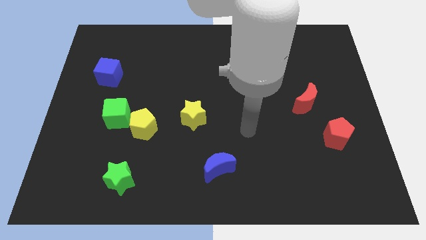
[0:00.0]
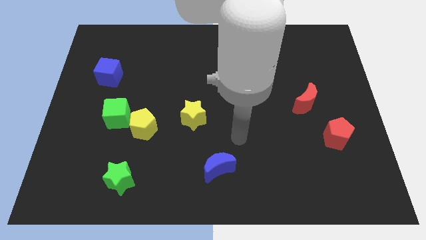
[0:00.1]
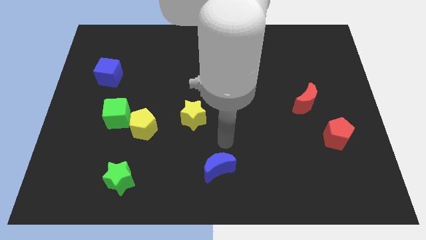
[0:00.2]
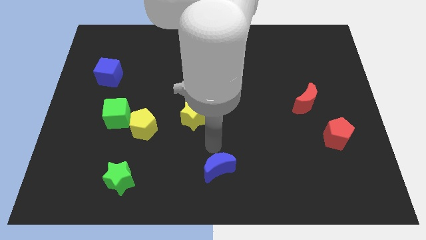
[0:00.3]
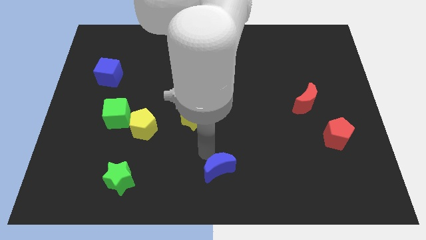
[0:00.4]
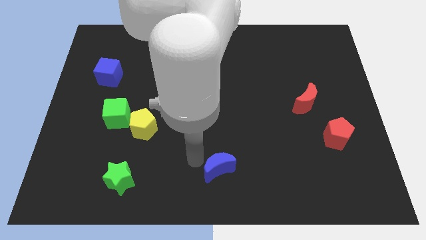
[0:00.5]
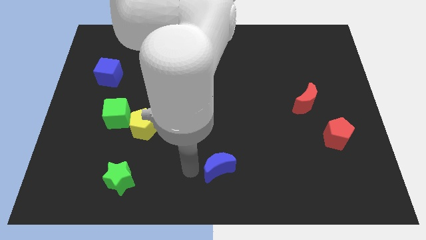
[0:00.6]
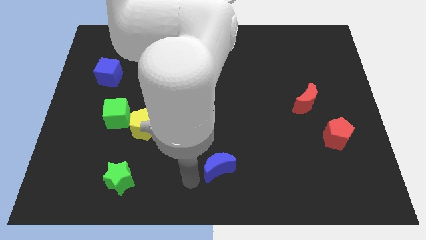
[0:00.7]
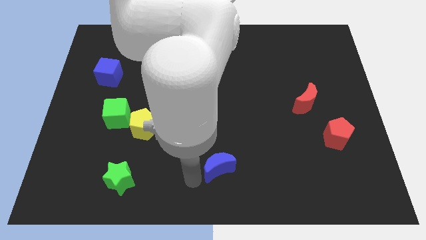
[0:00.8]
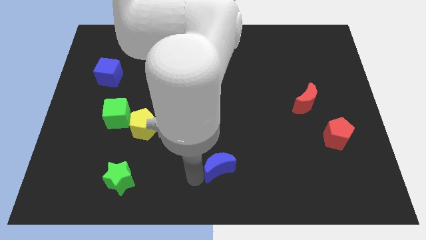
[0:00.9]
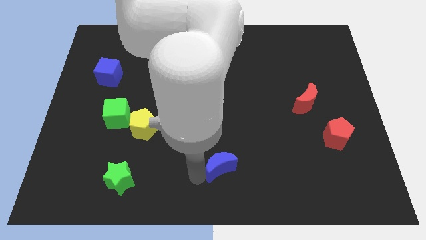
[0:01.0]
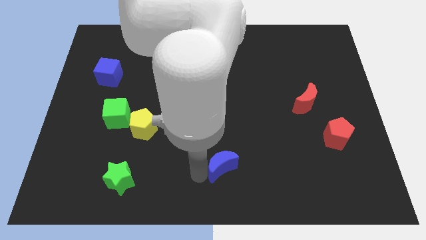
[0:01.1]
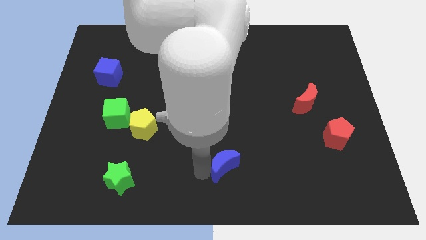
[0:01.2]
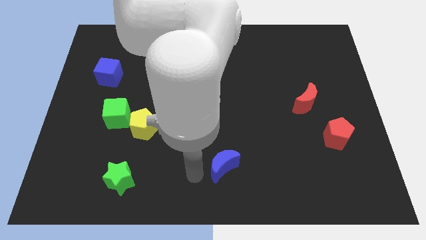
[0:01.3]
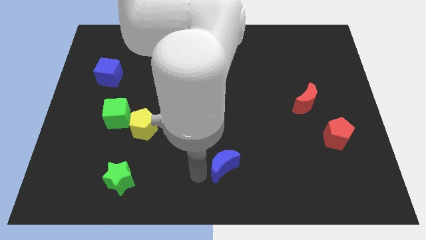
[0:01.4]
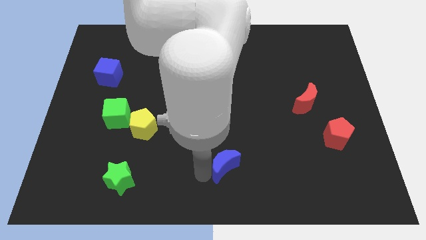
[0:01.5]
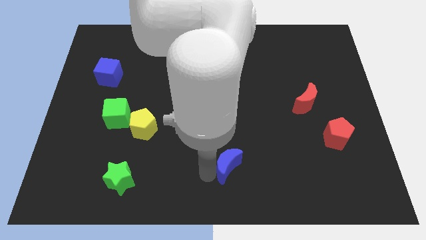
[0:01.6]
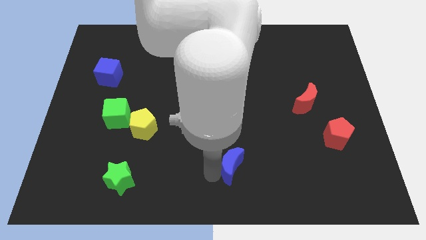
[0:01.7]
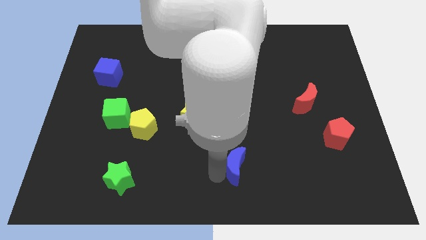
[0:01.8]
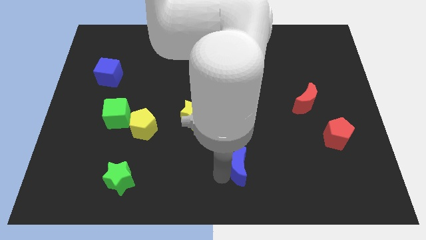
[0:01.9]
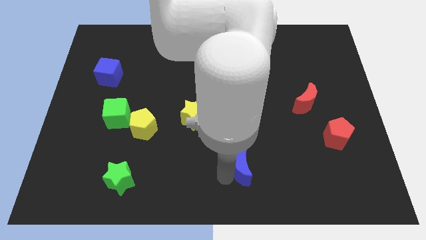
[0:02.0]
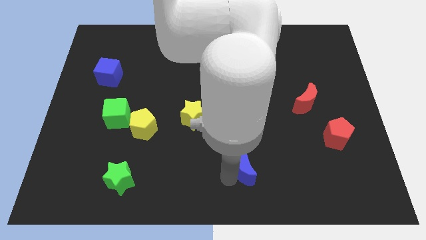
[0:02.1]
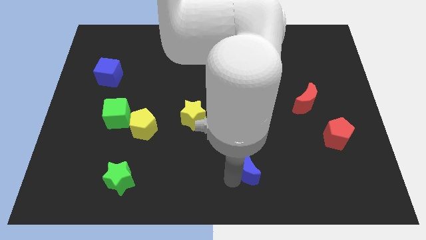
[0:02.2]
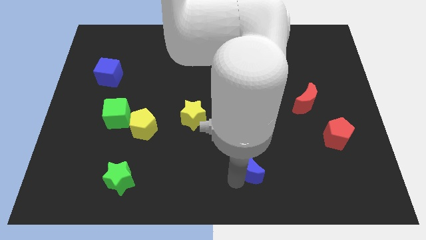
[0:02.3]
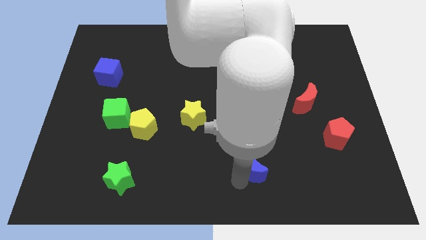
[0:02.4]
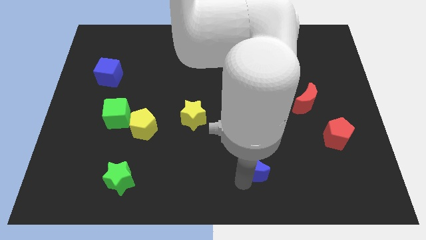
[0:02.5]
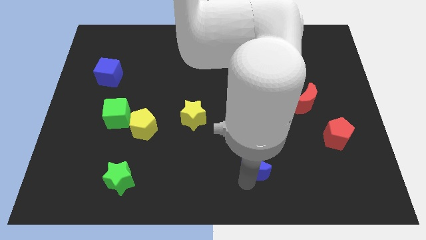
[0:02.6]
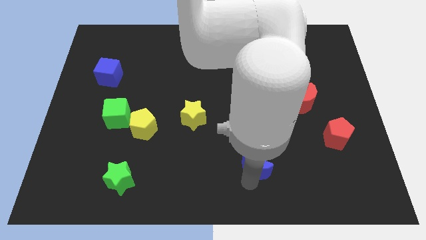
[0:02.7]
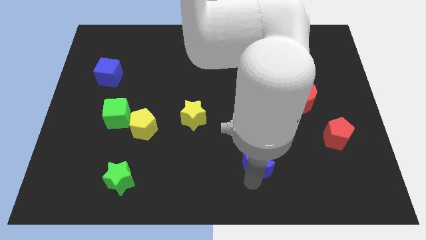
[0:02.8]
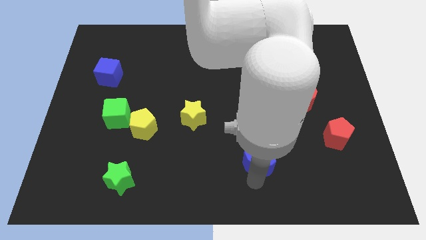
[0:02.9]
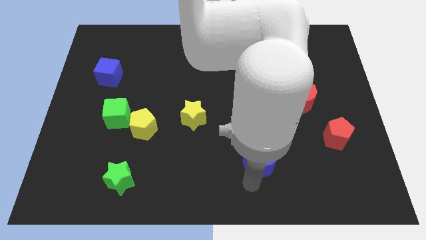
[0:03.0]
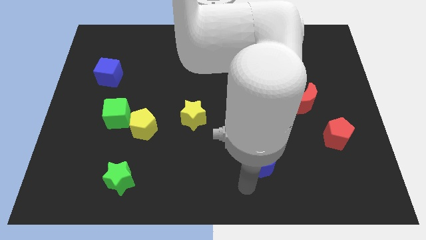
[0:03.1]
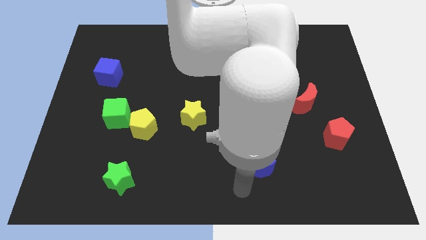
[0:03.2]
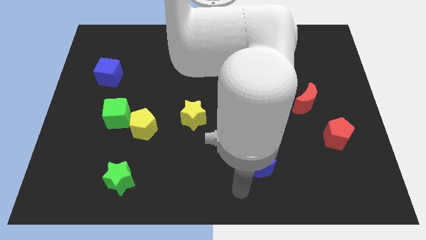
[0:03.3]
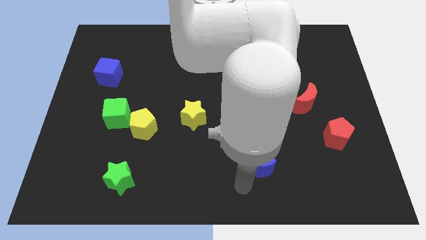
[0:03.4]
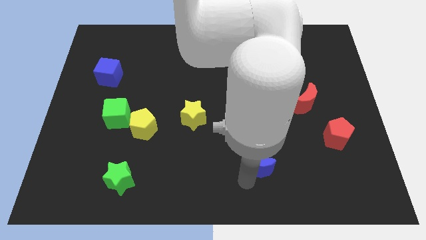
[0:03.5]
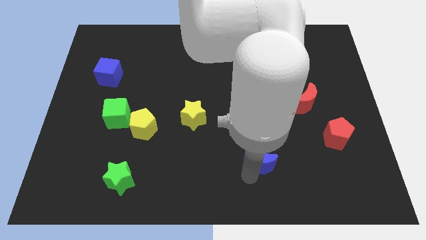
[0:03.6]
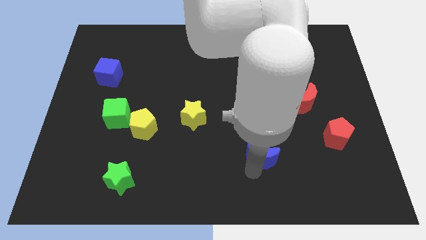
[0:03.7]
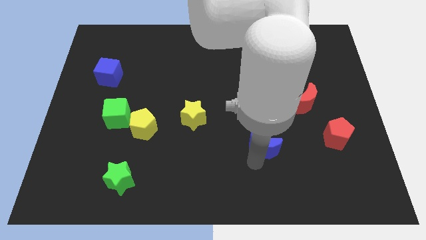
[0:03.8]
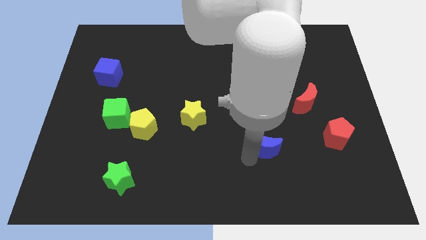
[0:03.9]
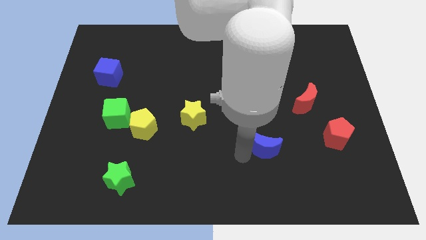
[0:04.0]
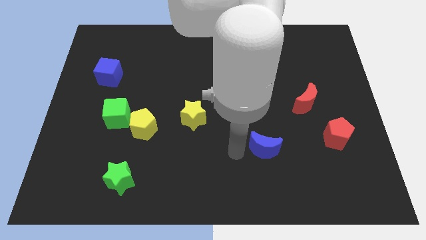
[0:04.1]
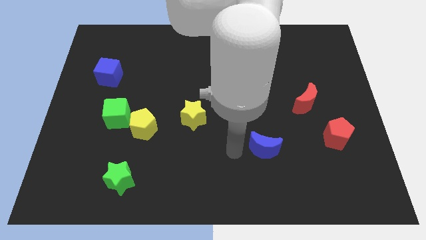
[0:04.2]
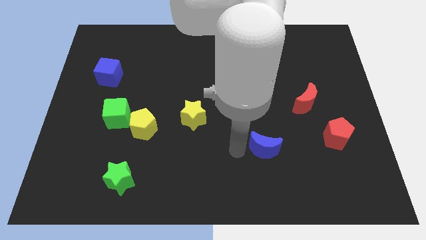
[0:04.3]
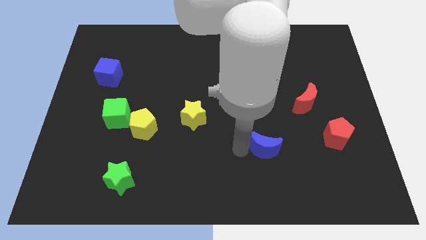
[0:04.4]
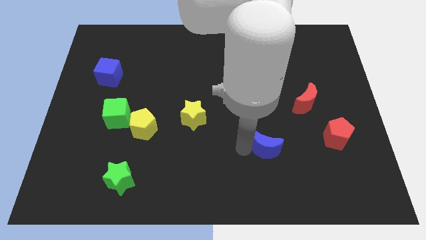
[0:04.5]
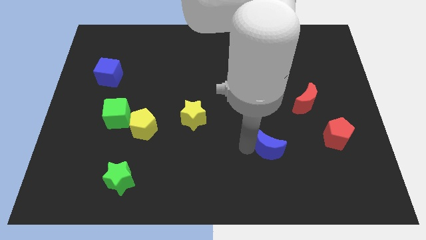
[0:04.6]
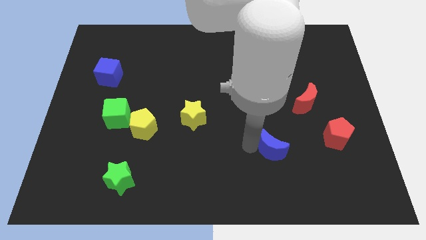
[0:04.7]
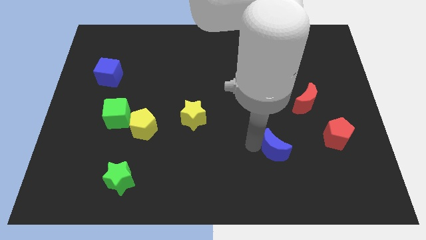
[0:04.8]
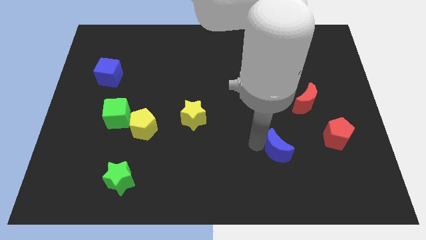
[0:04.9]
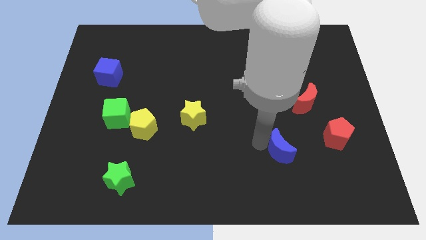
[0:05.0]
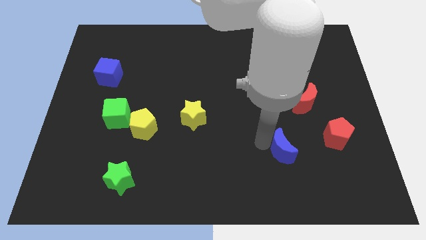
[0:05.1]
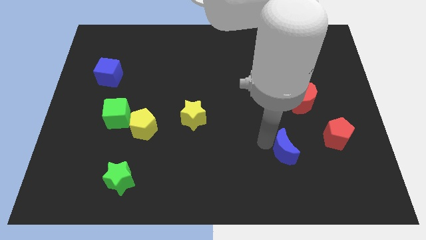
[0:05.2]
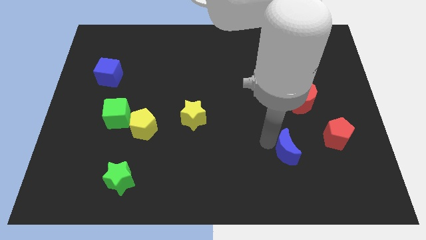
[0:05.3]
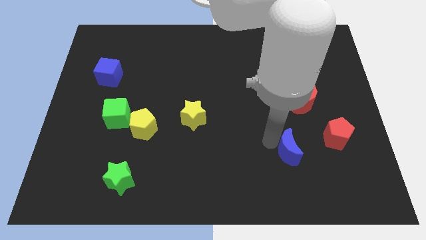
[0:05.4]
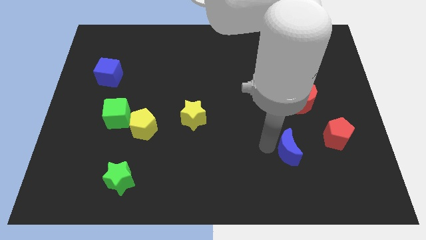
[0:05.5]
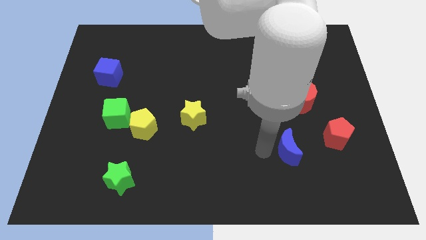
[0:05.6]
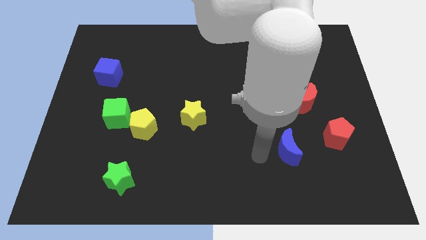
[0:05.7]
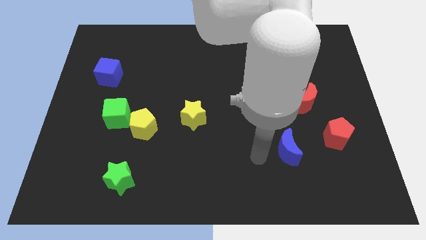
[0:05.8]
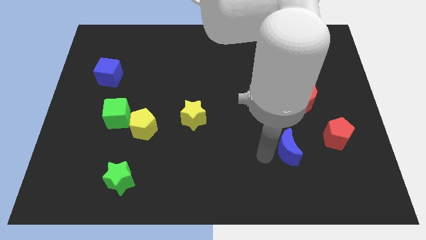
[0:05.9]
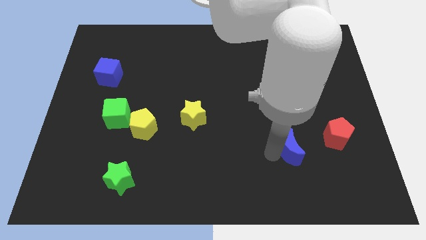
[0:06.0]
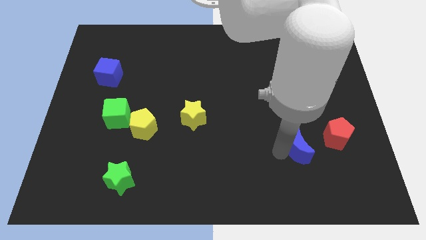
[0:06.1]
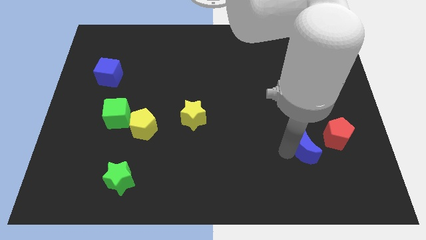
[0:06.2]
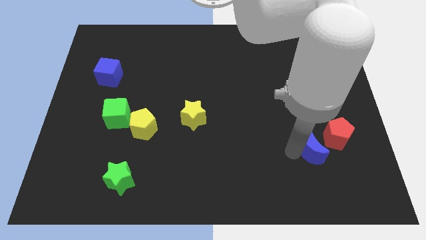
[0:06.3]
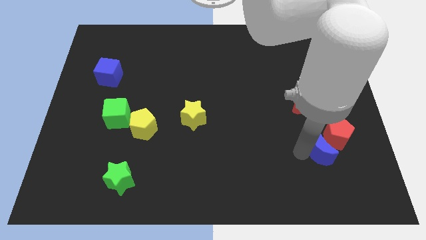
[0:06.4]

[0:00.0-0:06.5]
slide the blue moon to the red pentagon

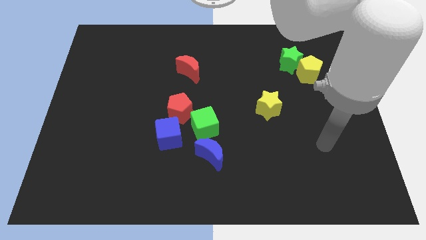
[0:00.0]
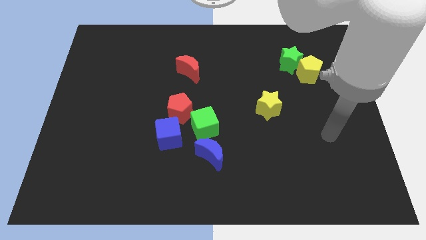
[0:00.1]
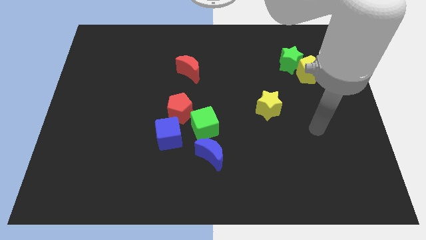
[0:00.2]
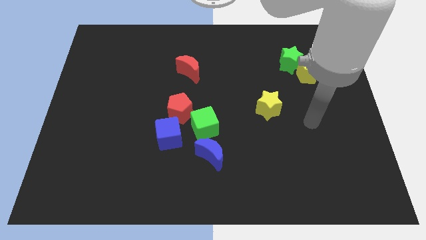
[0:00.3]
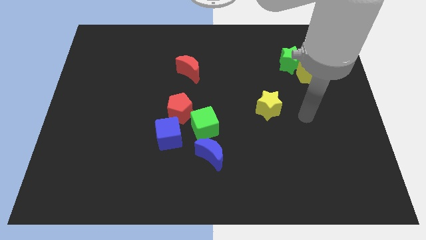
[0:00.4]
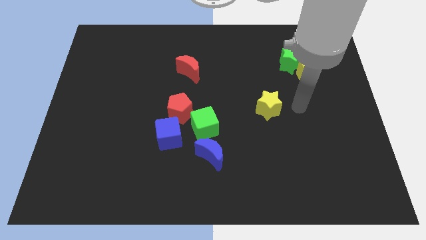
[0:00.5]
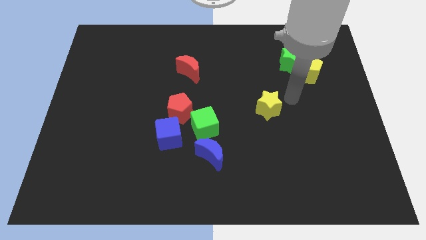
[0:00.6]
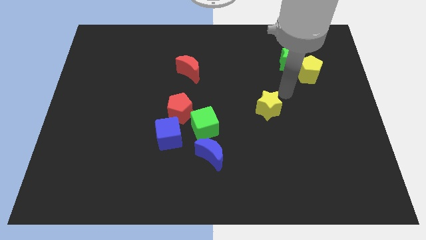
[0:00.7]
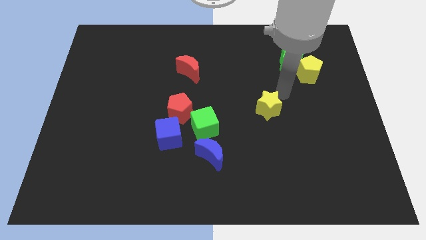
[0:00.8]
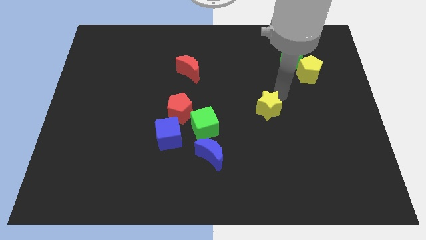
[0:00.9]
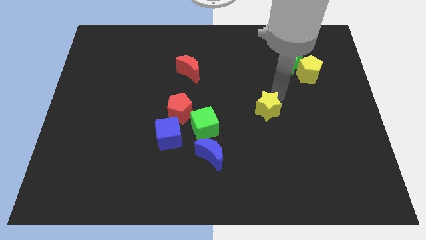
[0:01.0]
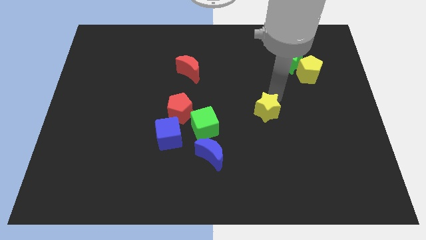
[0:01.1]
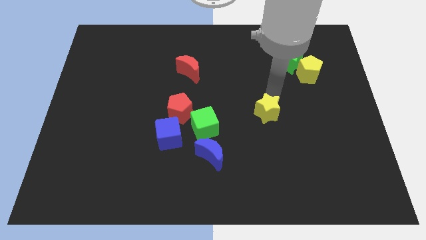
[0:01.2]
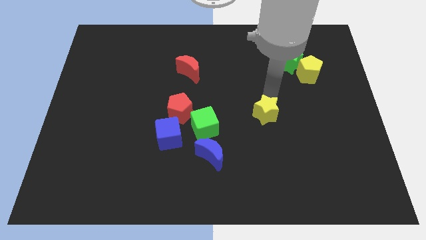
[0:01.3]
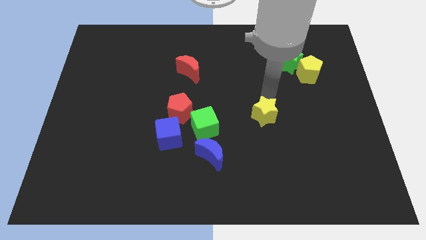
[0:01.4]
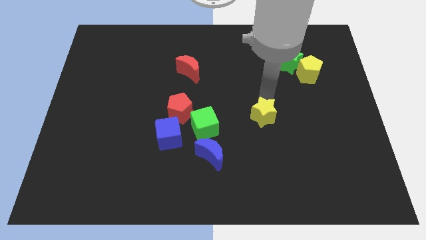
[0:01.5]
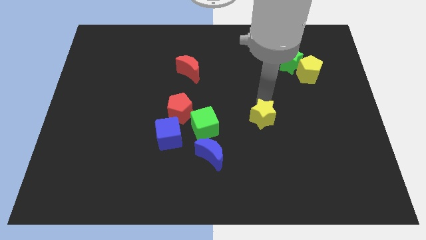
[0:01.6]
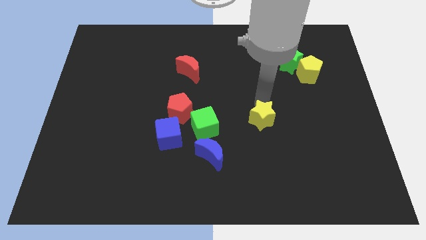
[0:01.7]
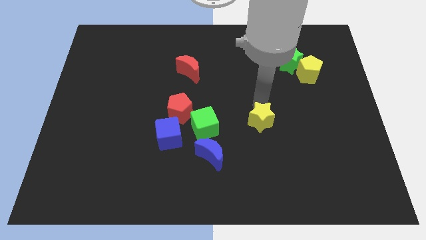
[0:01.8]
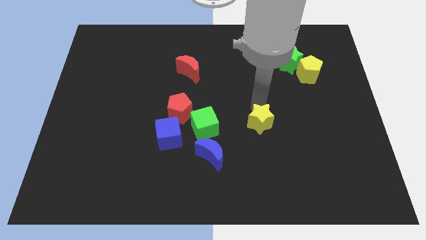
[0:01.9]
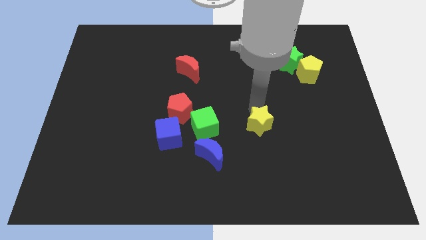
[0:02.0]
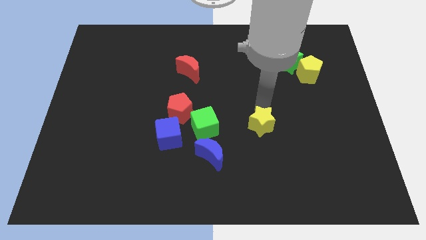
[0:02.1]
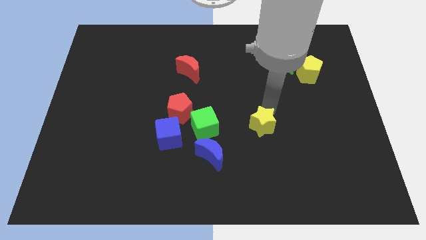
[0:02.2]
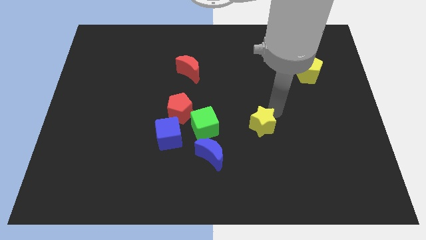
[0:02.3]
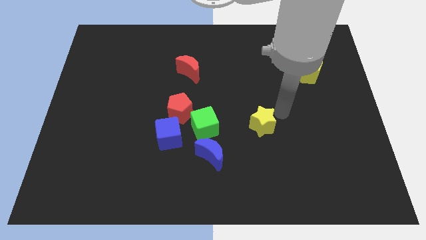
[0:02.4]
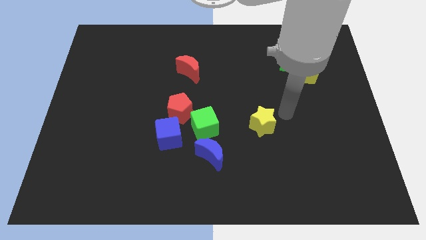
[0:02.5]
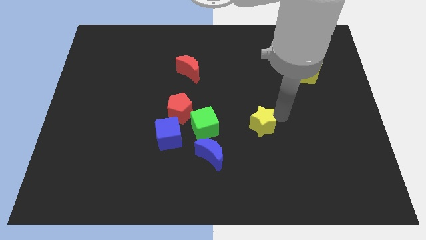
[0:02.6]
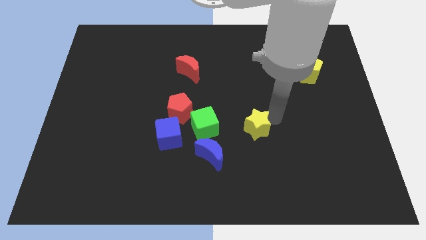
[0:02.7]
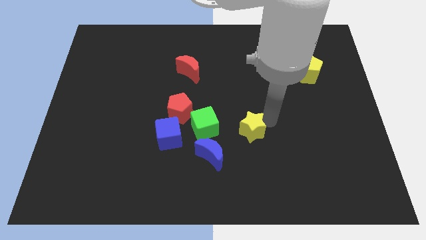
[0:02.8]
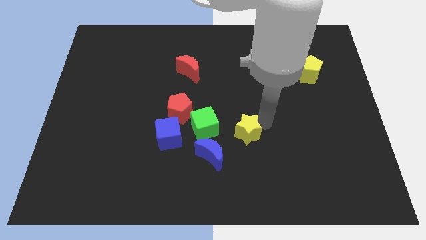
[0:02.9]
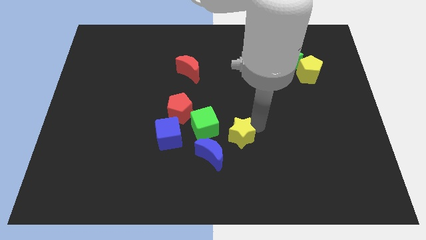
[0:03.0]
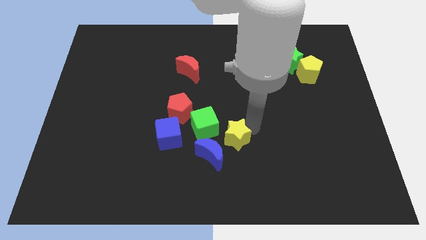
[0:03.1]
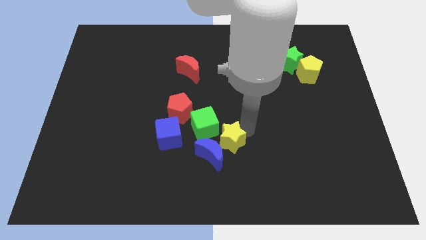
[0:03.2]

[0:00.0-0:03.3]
put the yellow star to the blue moon
